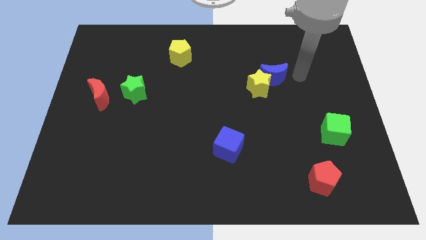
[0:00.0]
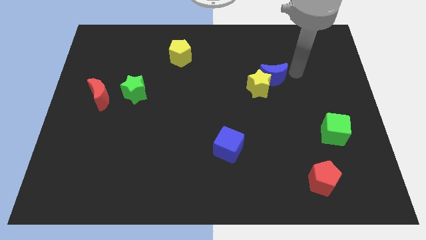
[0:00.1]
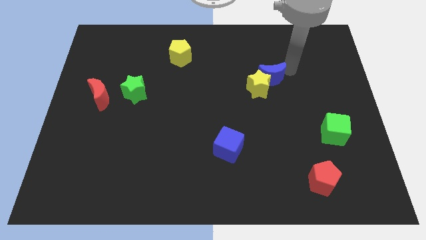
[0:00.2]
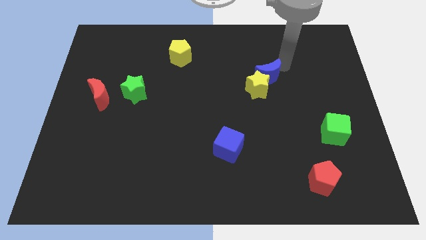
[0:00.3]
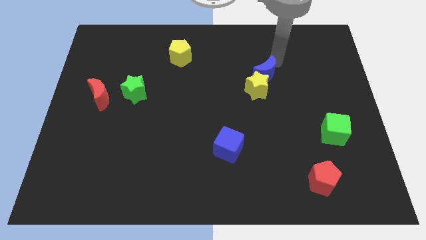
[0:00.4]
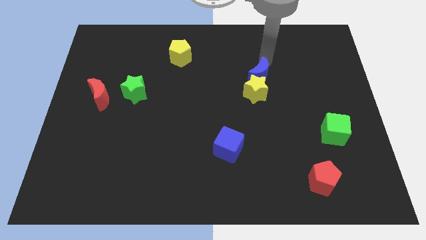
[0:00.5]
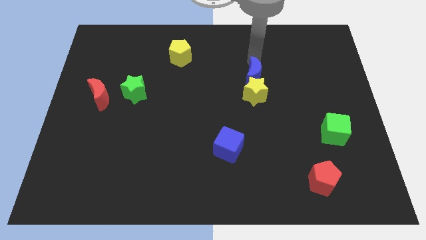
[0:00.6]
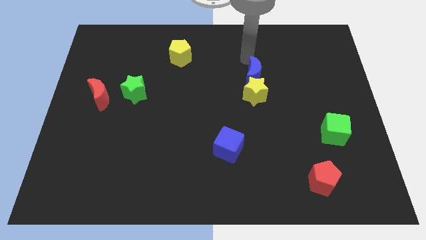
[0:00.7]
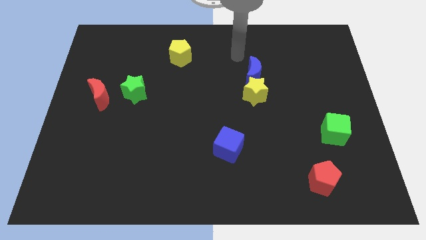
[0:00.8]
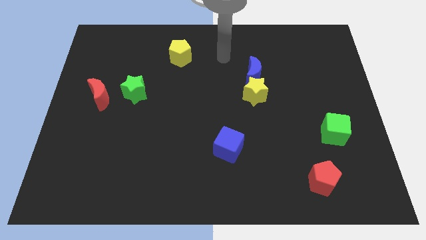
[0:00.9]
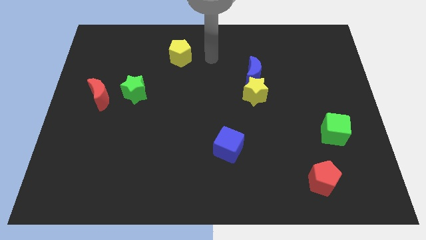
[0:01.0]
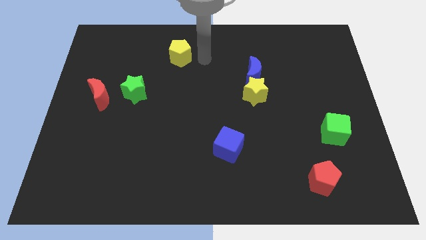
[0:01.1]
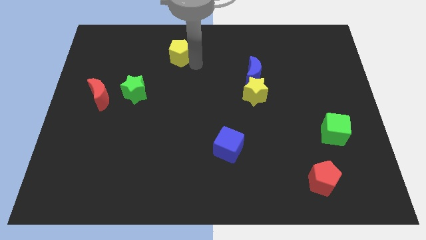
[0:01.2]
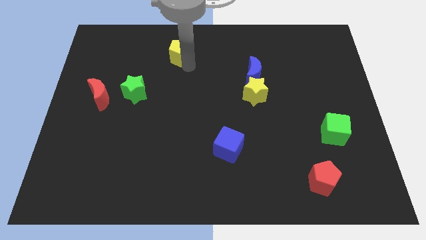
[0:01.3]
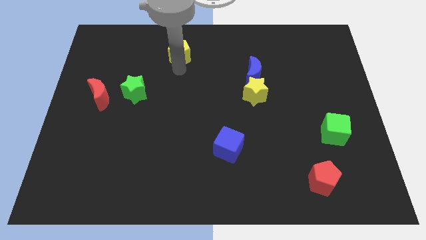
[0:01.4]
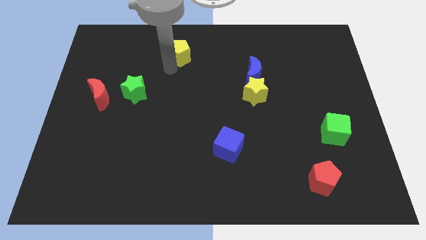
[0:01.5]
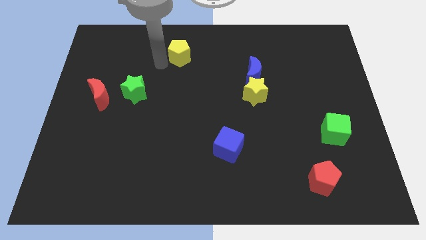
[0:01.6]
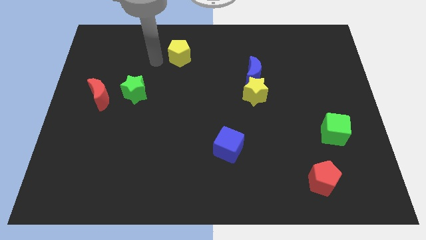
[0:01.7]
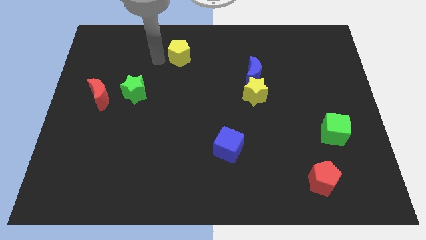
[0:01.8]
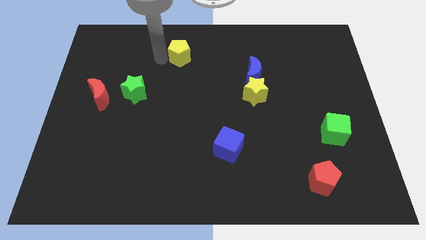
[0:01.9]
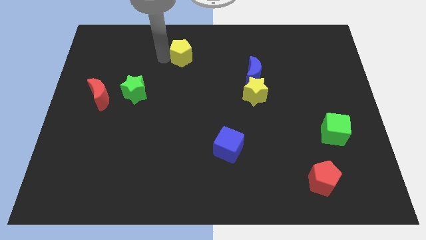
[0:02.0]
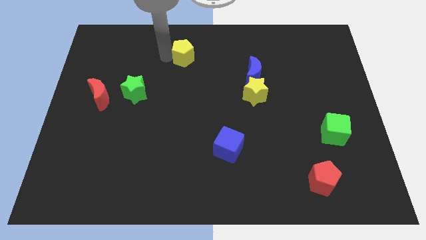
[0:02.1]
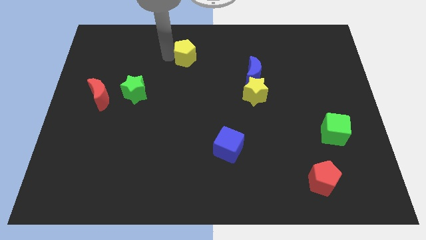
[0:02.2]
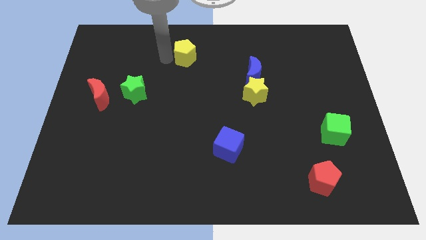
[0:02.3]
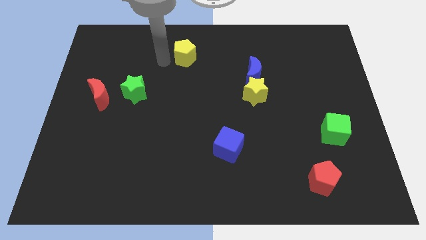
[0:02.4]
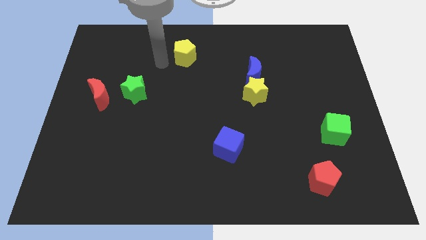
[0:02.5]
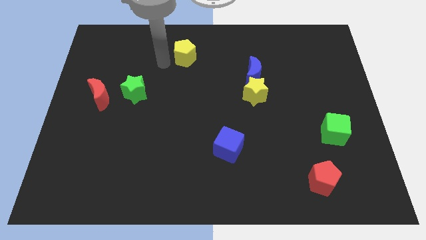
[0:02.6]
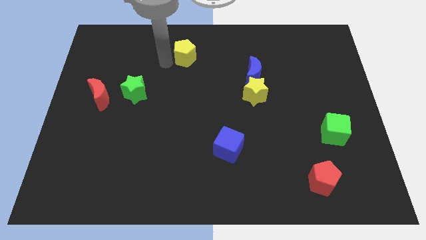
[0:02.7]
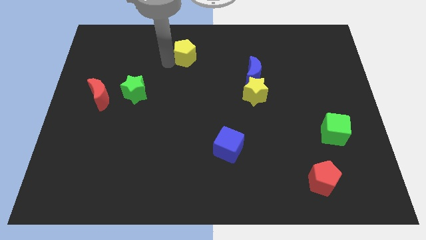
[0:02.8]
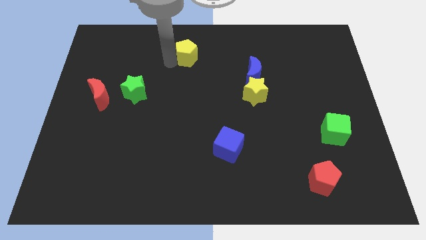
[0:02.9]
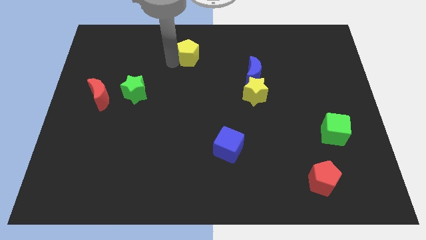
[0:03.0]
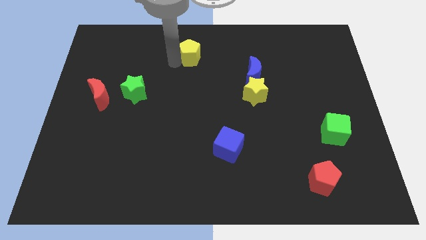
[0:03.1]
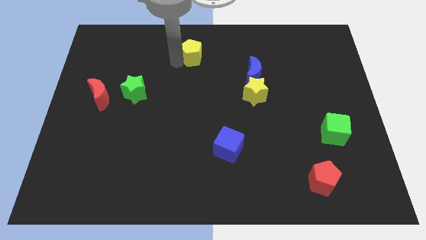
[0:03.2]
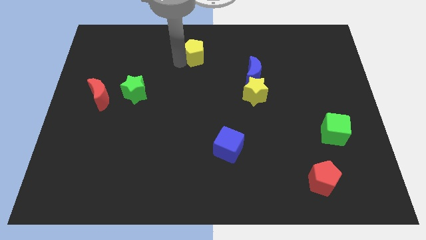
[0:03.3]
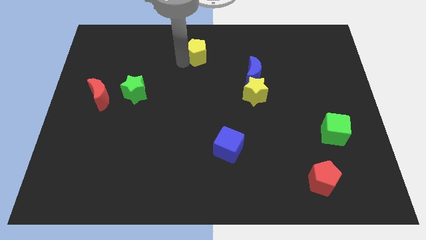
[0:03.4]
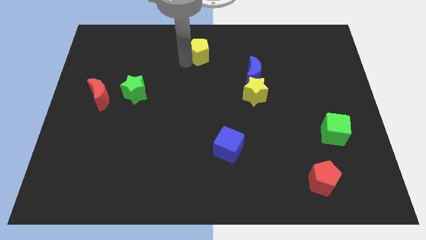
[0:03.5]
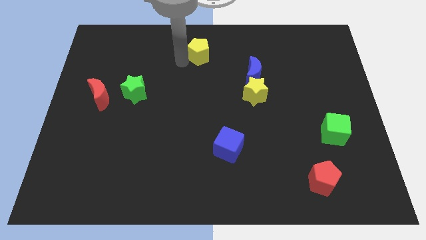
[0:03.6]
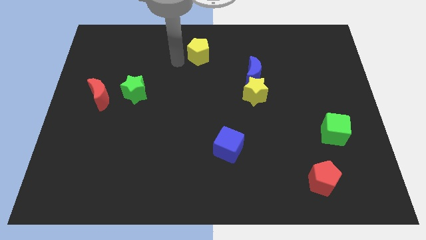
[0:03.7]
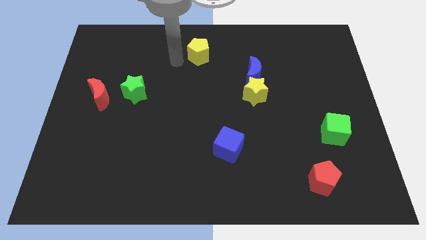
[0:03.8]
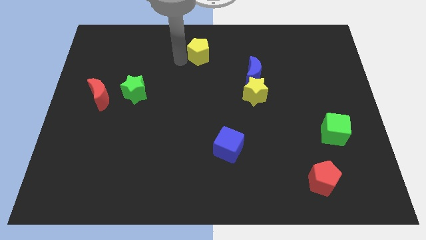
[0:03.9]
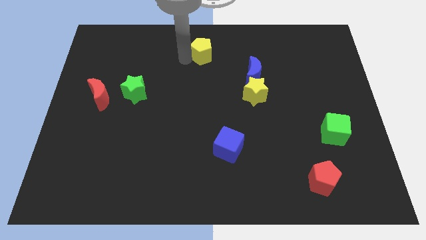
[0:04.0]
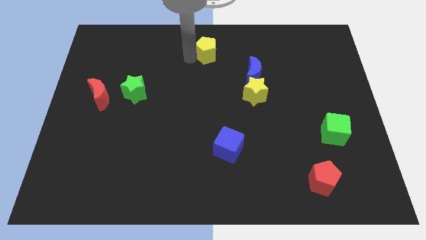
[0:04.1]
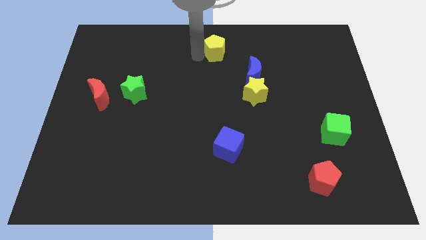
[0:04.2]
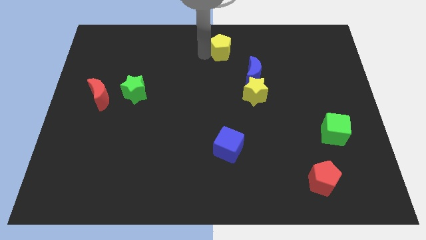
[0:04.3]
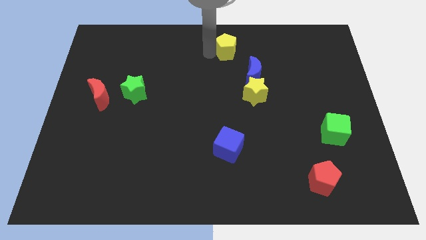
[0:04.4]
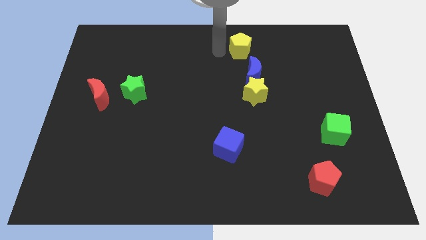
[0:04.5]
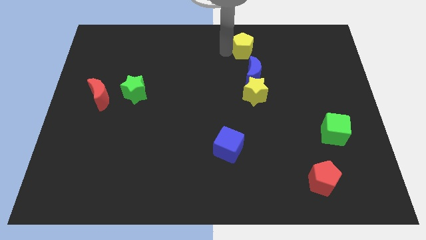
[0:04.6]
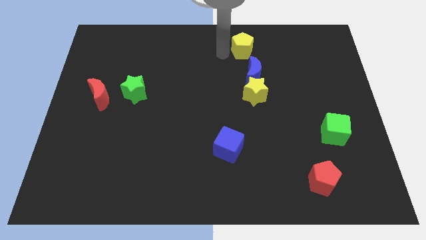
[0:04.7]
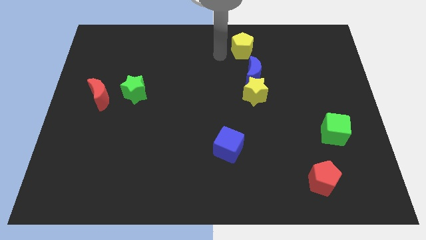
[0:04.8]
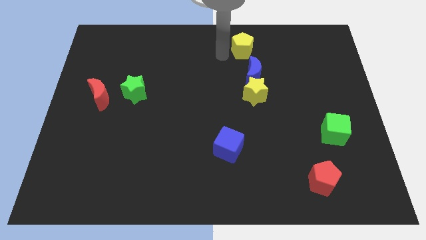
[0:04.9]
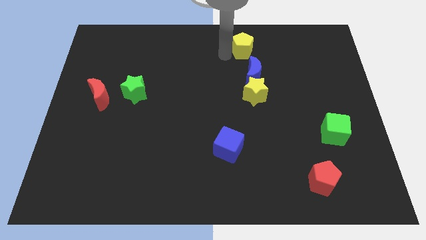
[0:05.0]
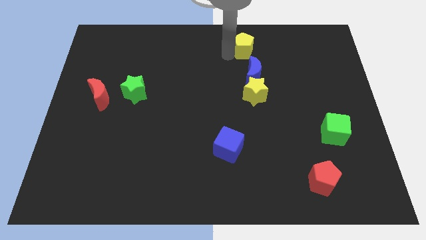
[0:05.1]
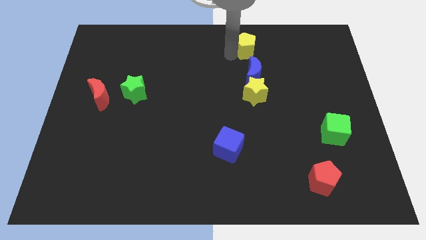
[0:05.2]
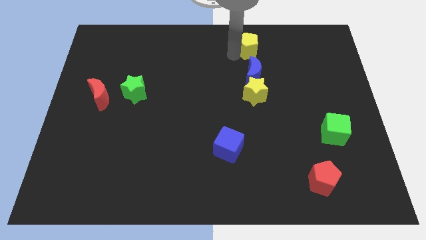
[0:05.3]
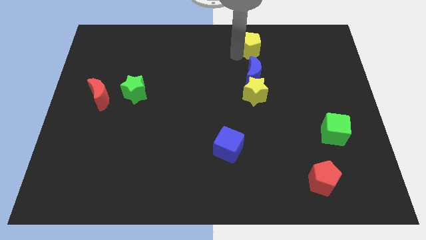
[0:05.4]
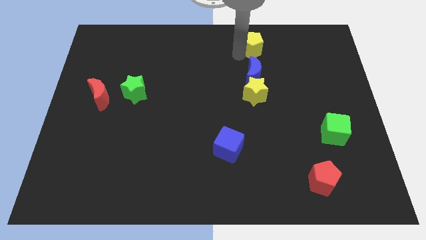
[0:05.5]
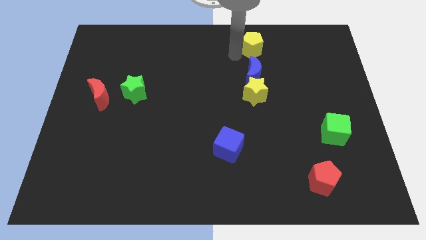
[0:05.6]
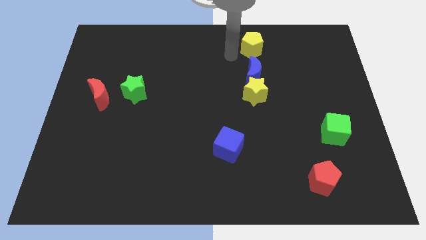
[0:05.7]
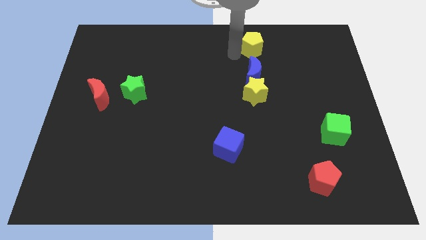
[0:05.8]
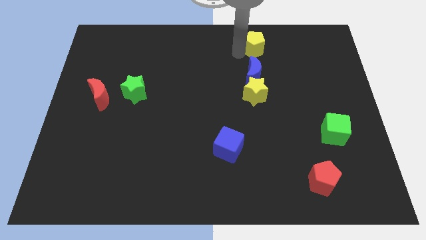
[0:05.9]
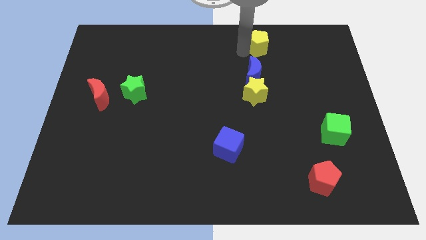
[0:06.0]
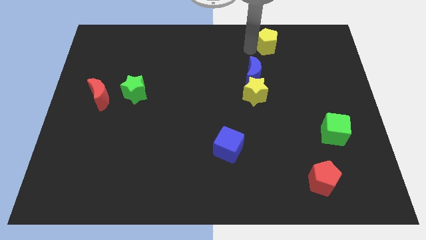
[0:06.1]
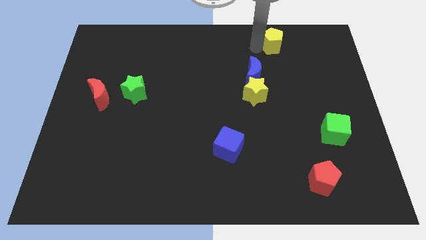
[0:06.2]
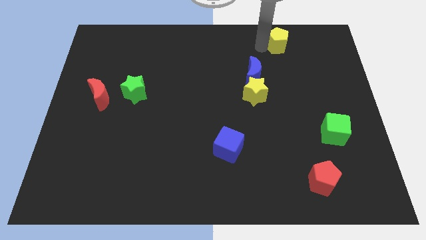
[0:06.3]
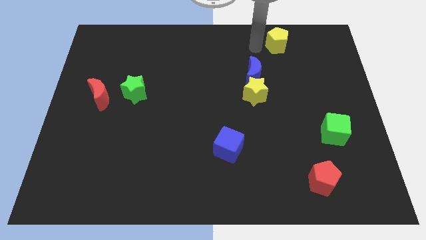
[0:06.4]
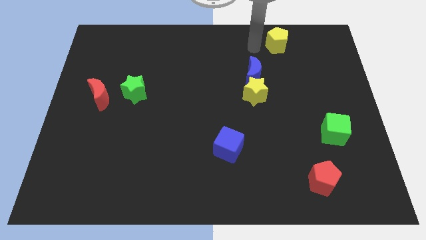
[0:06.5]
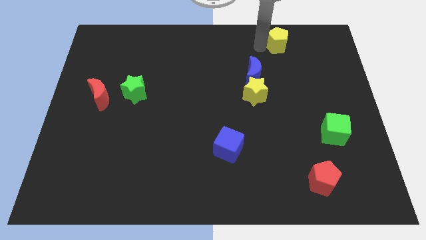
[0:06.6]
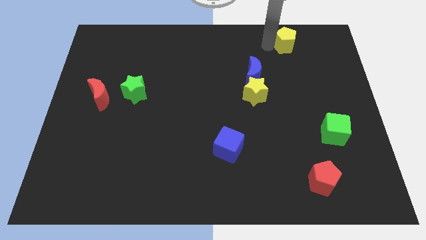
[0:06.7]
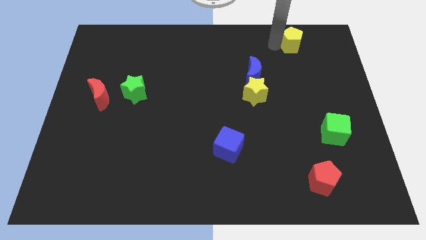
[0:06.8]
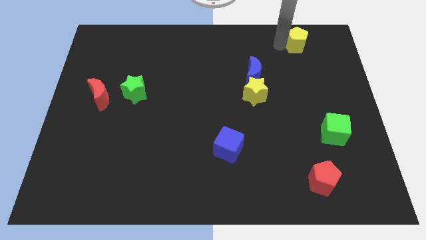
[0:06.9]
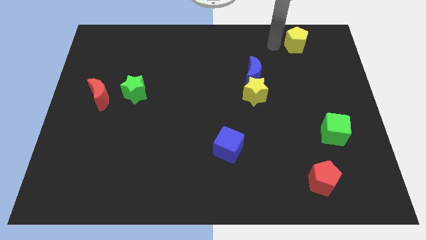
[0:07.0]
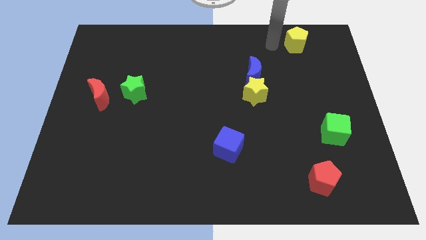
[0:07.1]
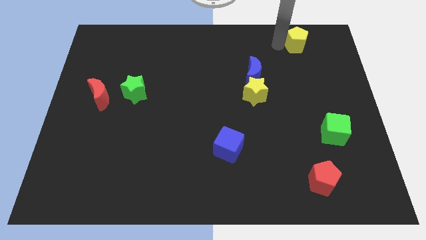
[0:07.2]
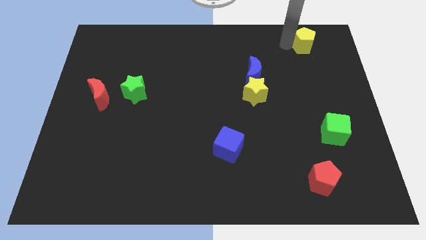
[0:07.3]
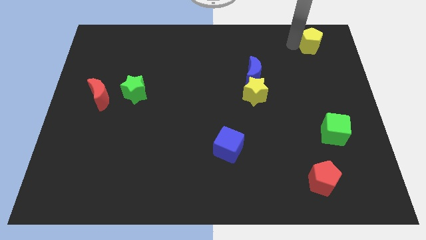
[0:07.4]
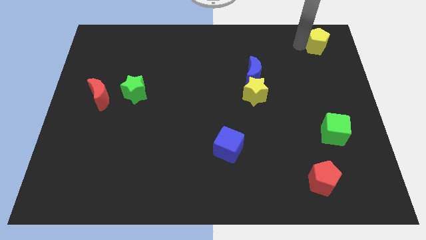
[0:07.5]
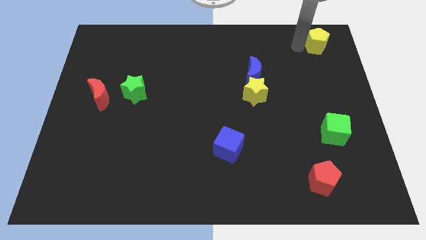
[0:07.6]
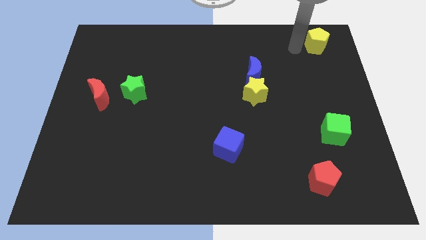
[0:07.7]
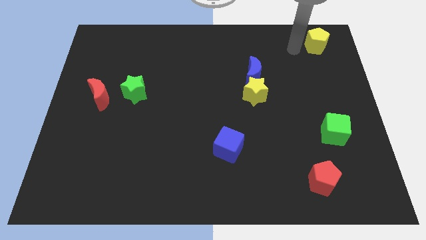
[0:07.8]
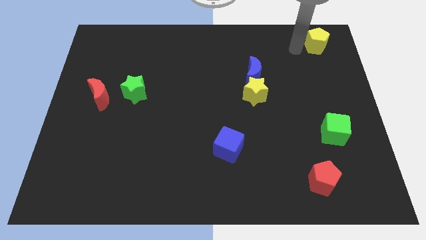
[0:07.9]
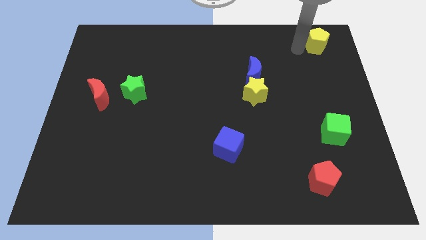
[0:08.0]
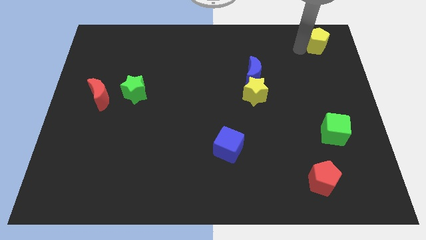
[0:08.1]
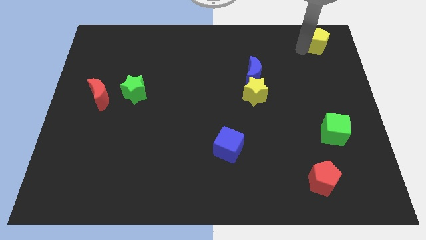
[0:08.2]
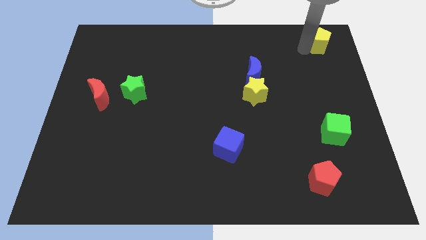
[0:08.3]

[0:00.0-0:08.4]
move the yellow pentagon to the top right corner
